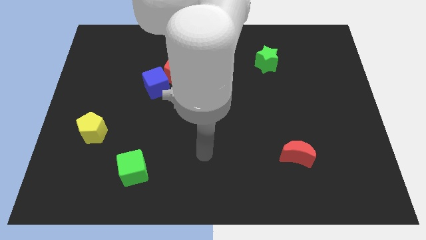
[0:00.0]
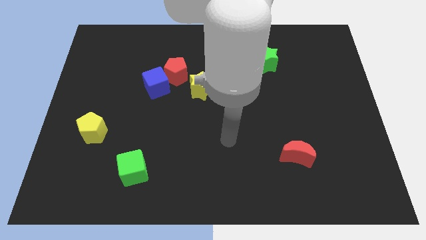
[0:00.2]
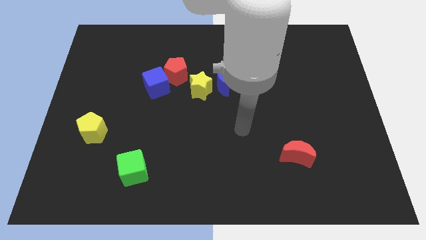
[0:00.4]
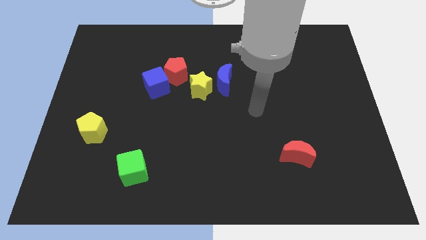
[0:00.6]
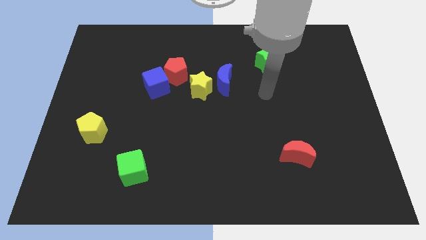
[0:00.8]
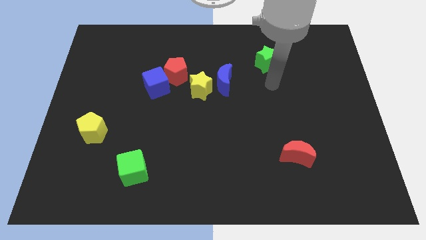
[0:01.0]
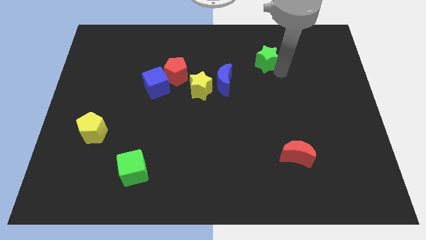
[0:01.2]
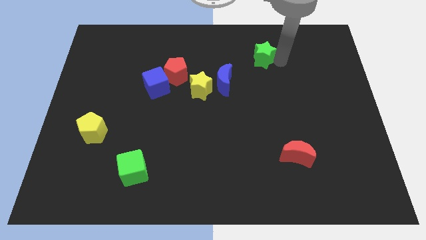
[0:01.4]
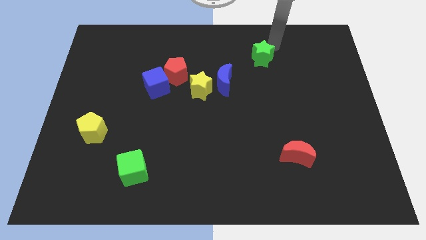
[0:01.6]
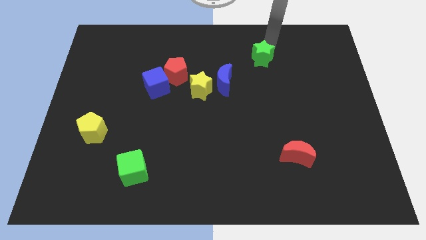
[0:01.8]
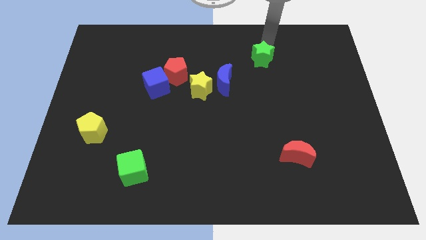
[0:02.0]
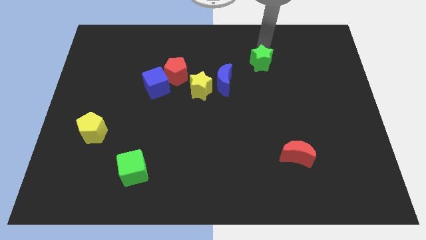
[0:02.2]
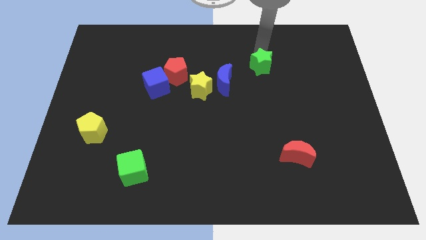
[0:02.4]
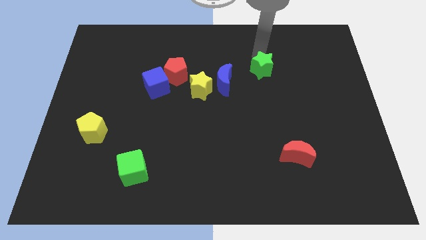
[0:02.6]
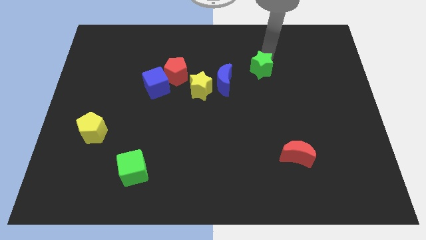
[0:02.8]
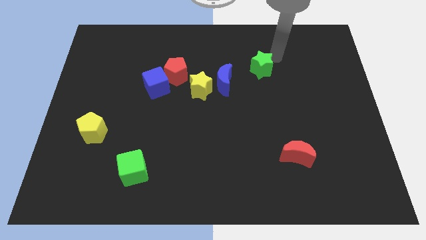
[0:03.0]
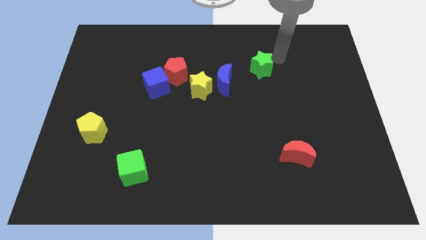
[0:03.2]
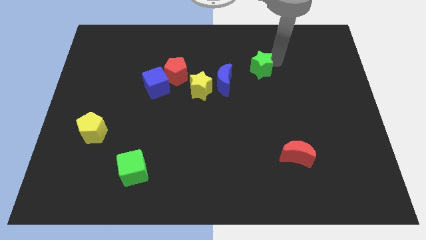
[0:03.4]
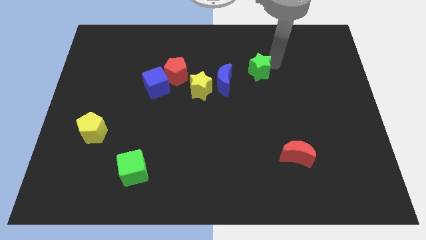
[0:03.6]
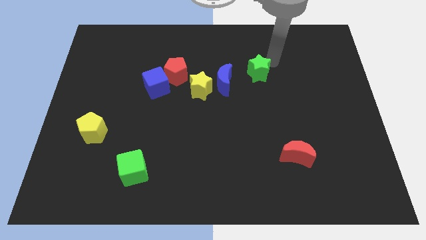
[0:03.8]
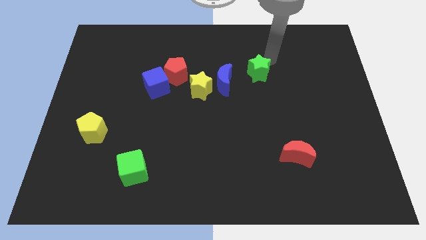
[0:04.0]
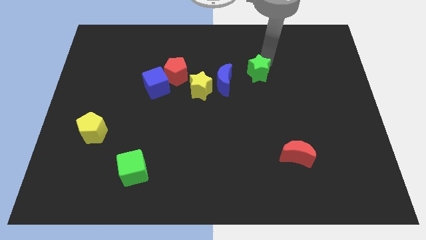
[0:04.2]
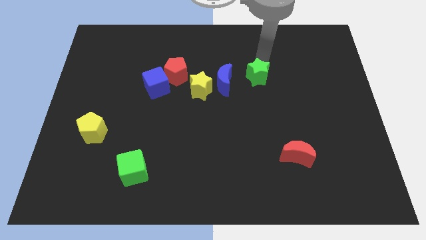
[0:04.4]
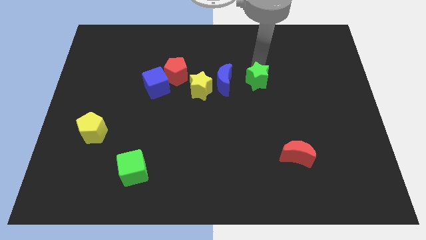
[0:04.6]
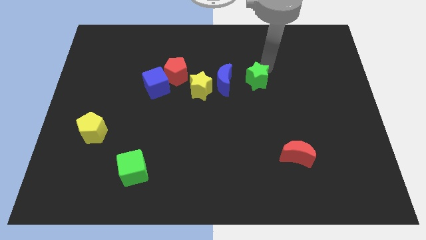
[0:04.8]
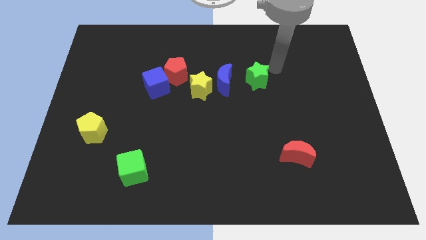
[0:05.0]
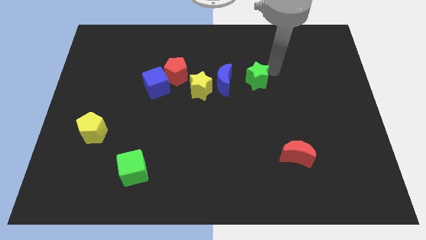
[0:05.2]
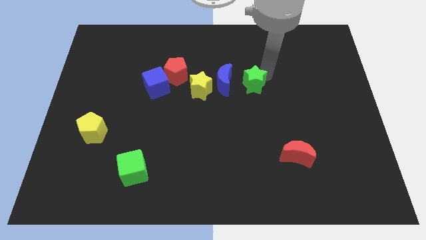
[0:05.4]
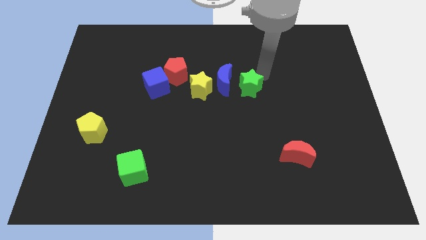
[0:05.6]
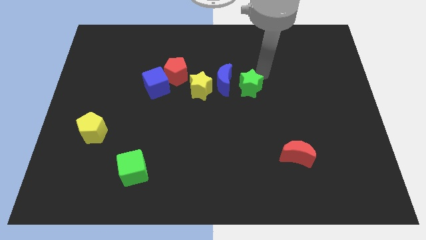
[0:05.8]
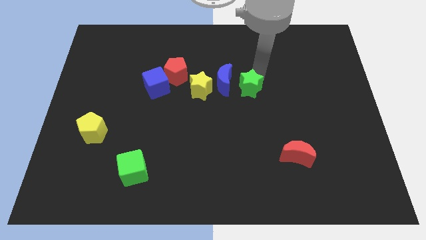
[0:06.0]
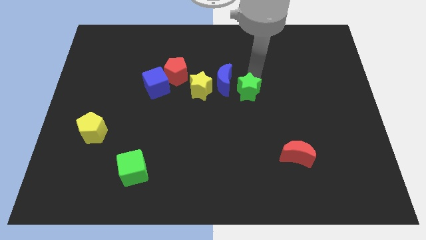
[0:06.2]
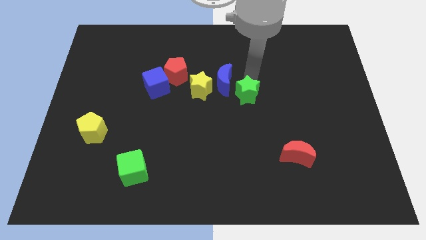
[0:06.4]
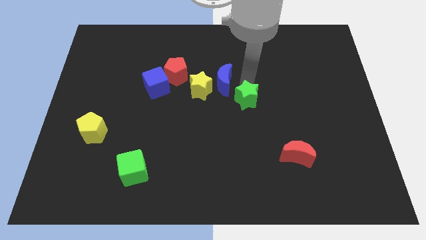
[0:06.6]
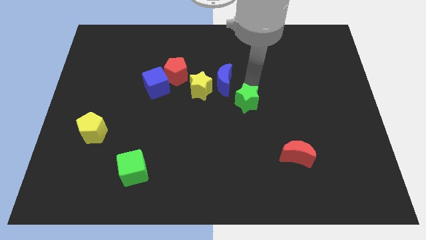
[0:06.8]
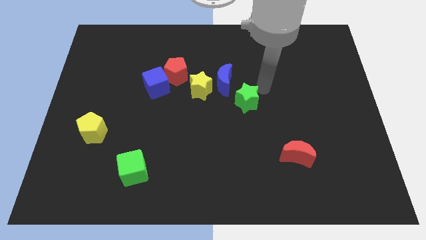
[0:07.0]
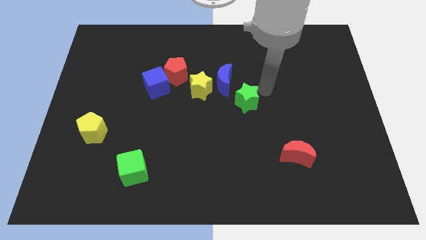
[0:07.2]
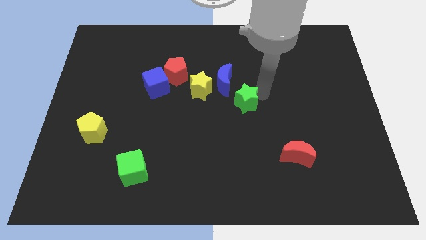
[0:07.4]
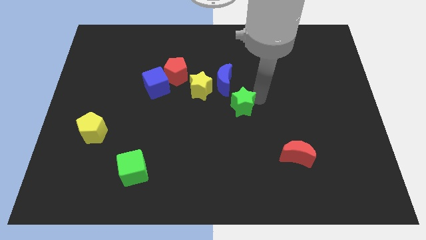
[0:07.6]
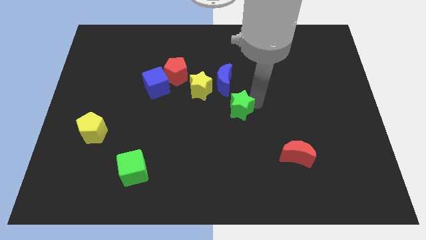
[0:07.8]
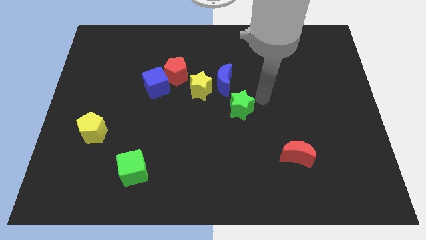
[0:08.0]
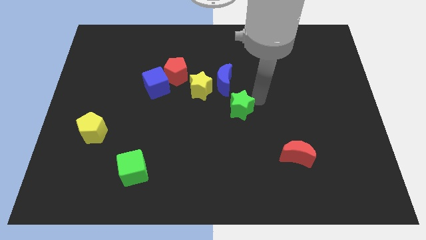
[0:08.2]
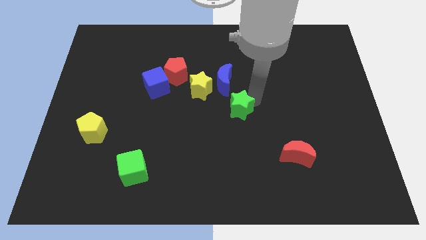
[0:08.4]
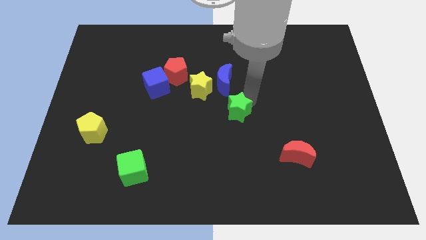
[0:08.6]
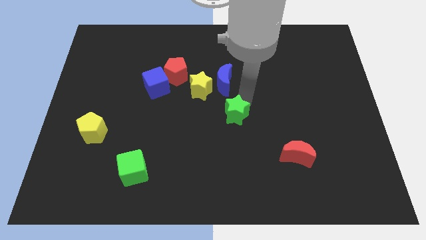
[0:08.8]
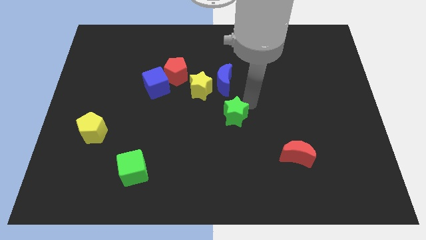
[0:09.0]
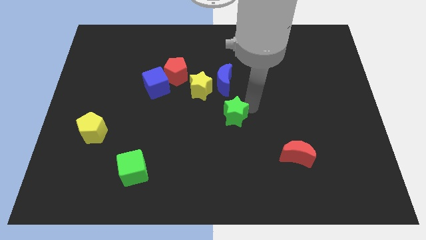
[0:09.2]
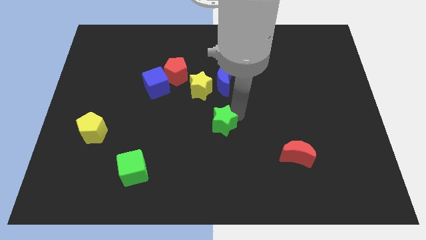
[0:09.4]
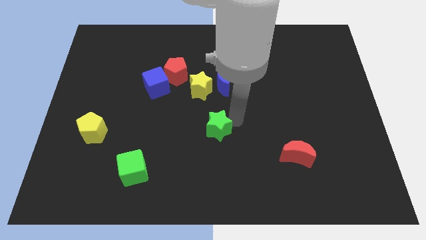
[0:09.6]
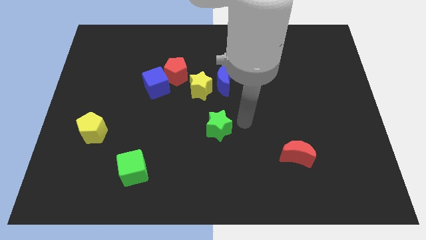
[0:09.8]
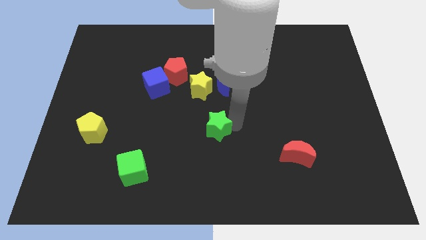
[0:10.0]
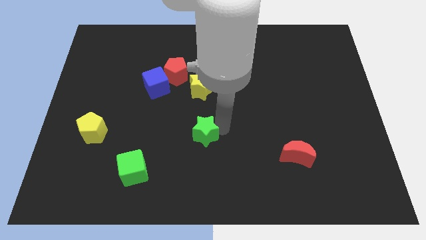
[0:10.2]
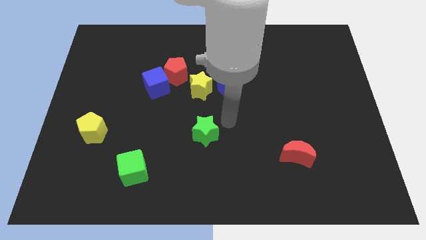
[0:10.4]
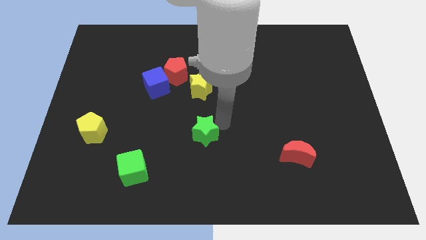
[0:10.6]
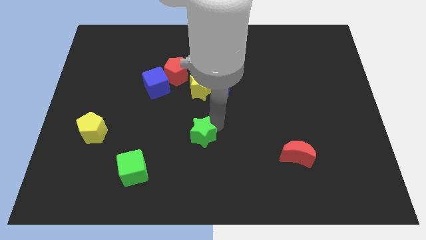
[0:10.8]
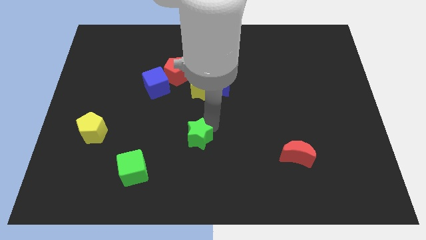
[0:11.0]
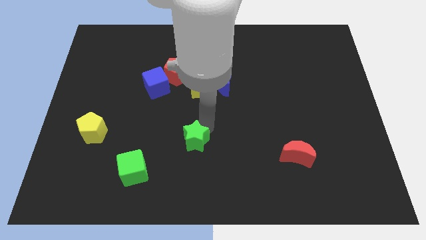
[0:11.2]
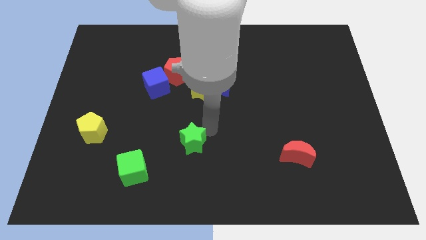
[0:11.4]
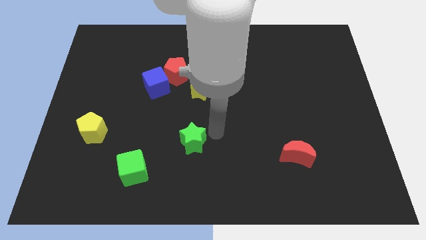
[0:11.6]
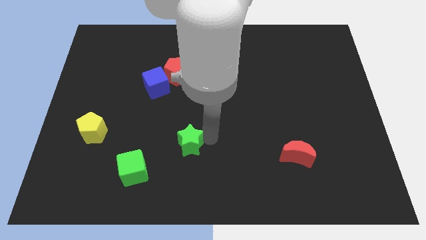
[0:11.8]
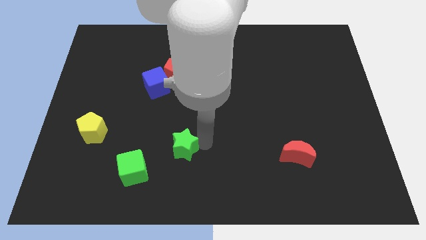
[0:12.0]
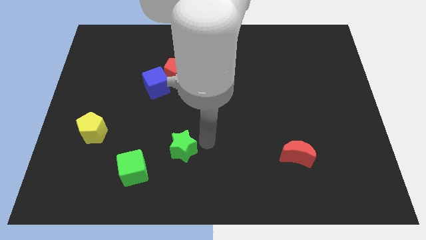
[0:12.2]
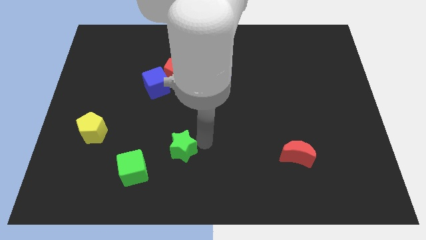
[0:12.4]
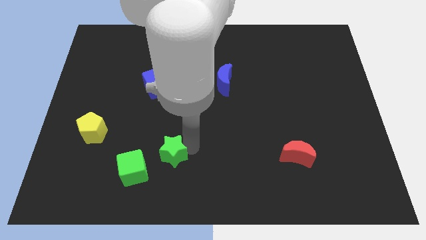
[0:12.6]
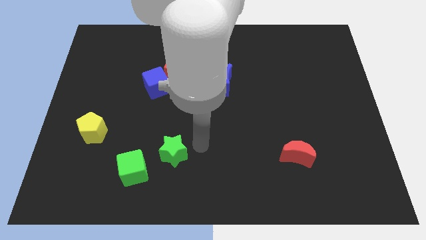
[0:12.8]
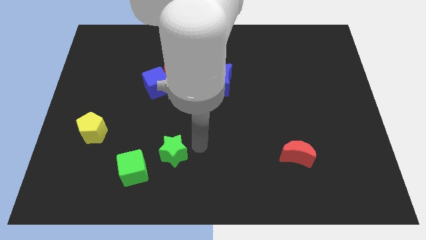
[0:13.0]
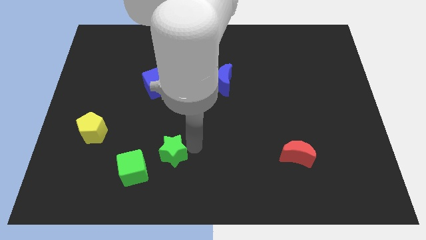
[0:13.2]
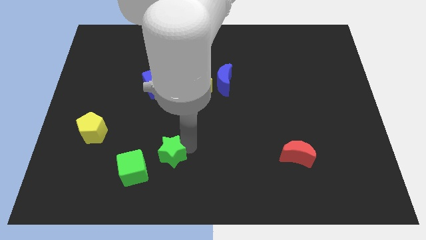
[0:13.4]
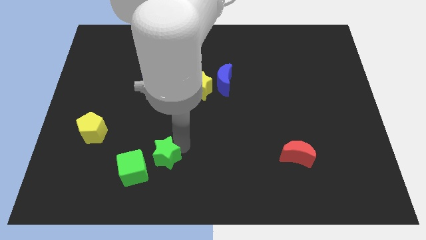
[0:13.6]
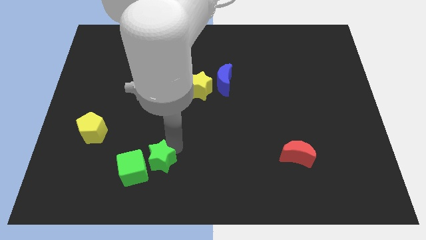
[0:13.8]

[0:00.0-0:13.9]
put the green star towards the green cube
